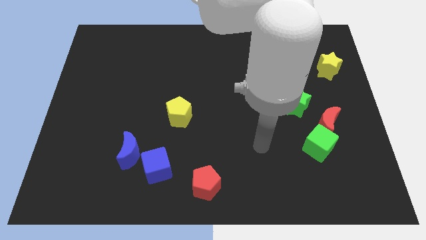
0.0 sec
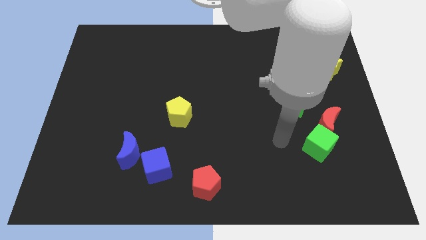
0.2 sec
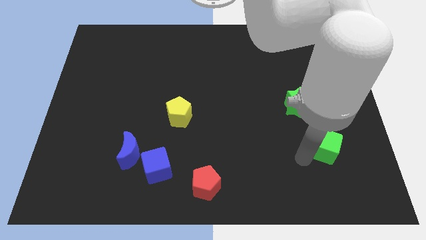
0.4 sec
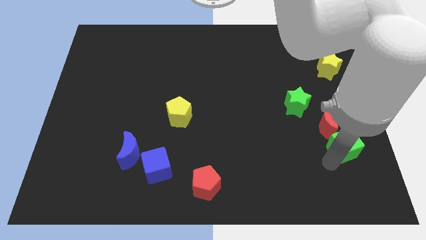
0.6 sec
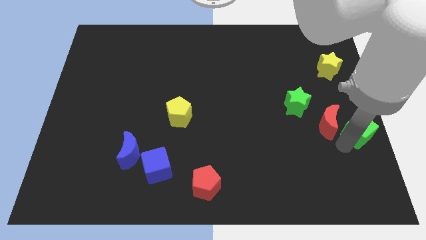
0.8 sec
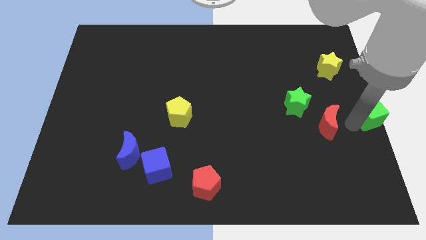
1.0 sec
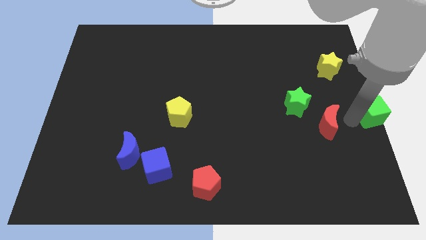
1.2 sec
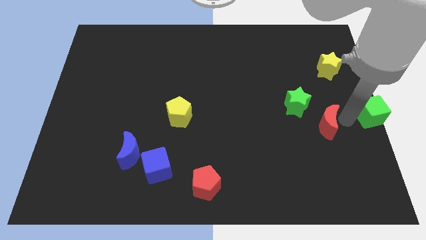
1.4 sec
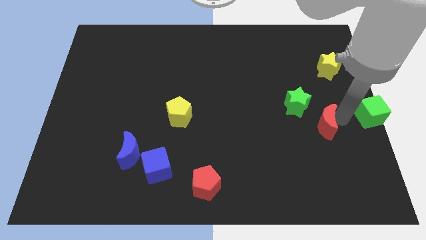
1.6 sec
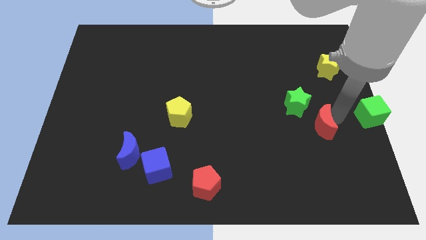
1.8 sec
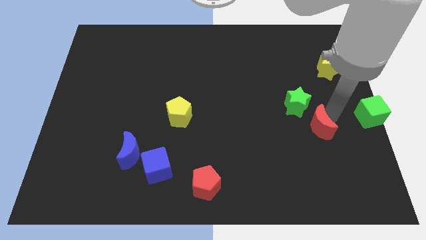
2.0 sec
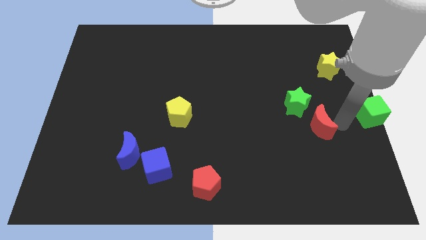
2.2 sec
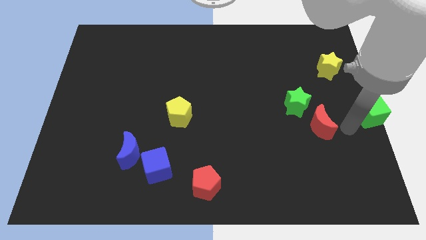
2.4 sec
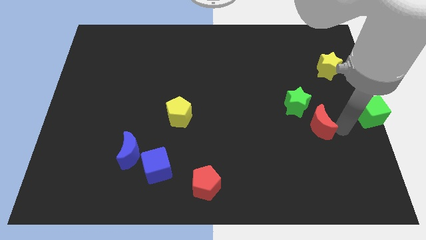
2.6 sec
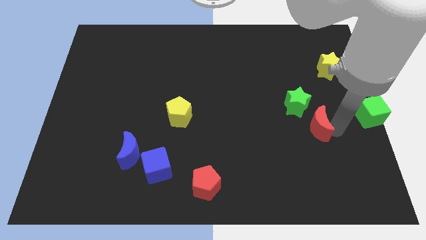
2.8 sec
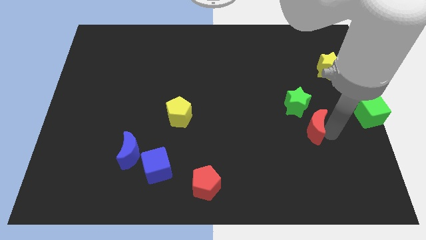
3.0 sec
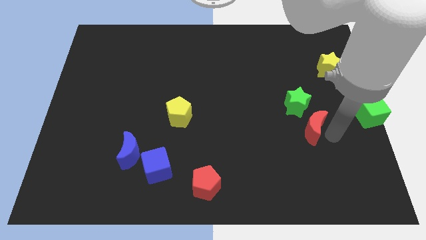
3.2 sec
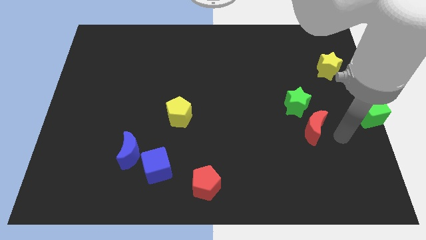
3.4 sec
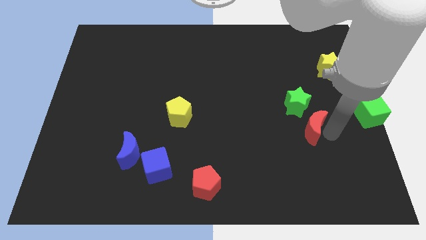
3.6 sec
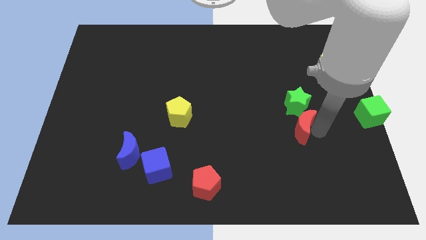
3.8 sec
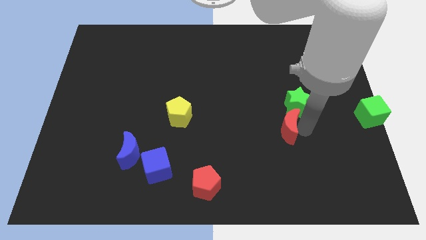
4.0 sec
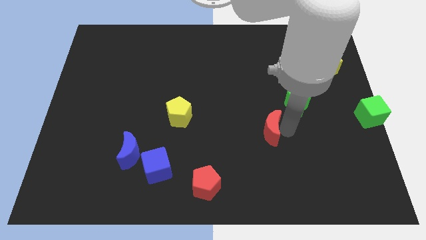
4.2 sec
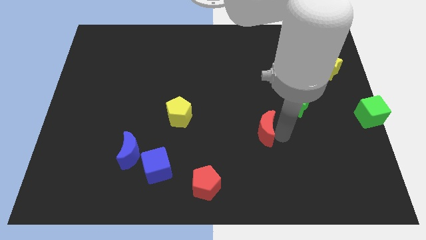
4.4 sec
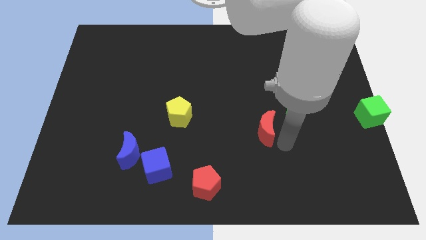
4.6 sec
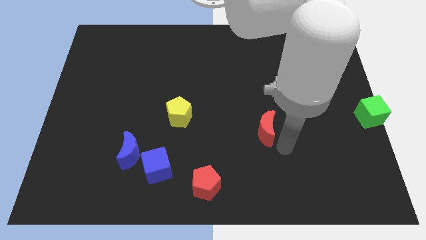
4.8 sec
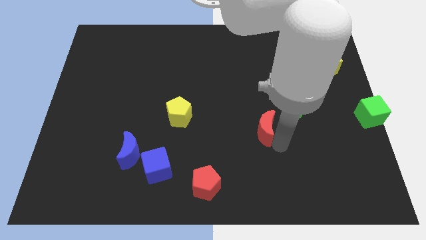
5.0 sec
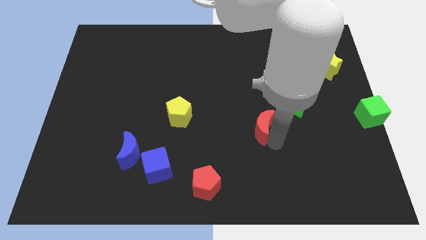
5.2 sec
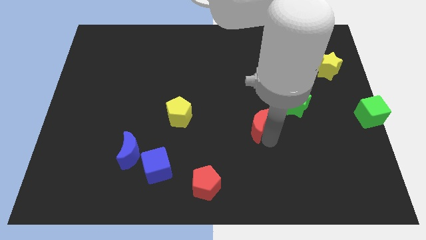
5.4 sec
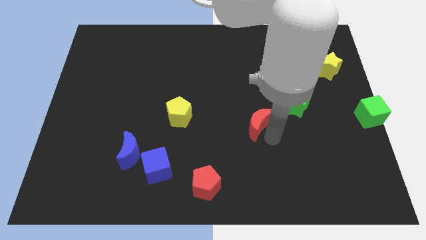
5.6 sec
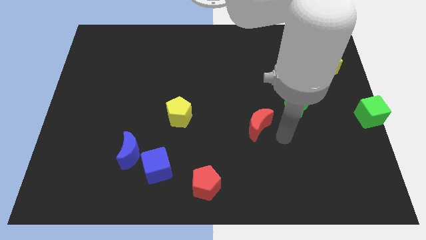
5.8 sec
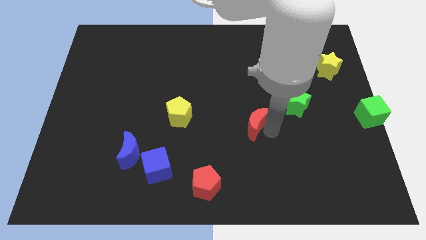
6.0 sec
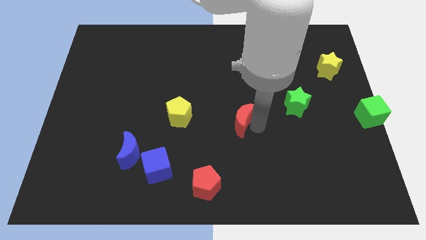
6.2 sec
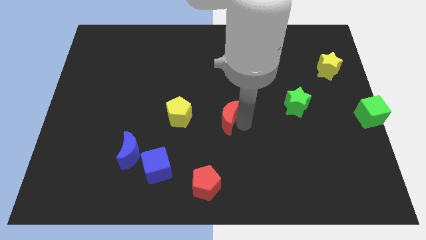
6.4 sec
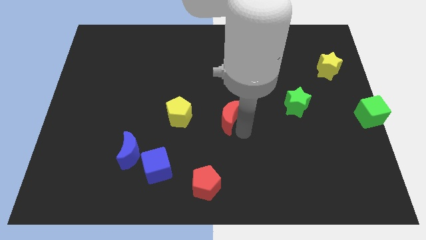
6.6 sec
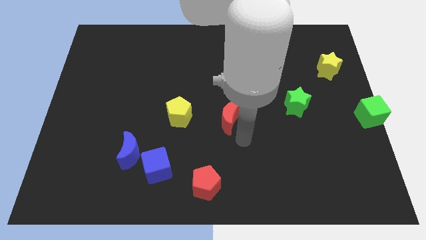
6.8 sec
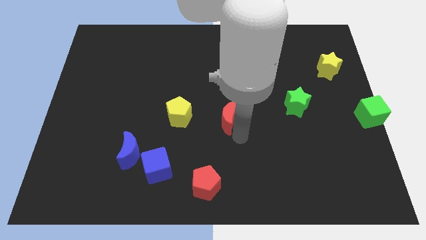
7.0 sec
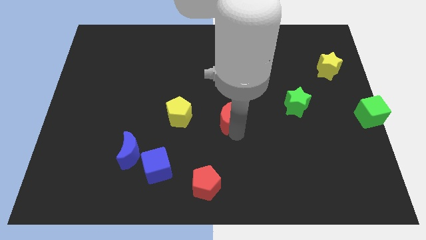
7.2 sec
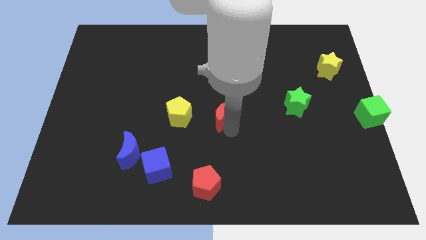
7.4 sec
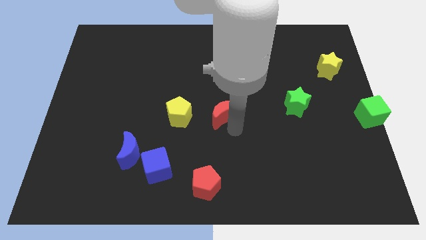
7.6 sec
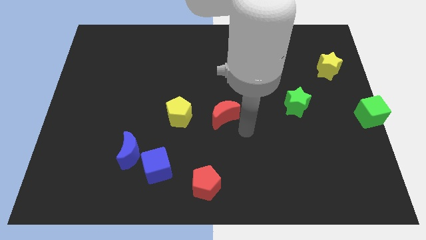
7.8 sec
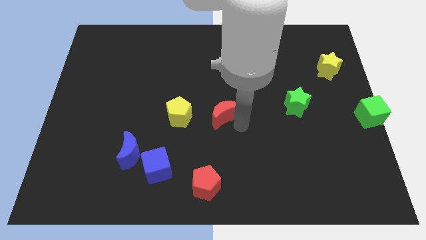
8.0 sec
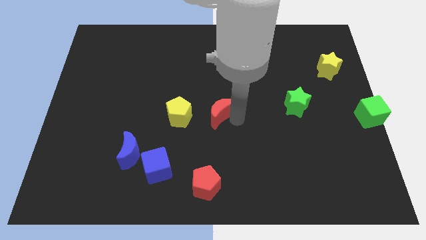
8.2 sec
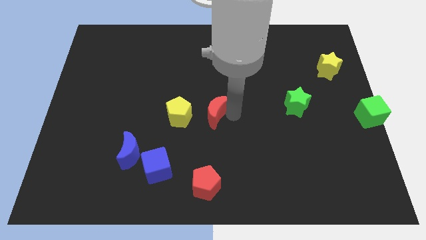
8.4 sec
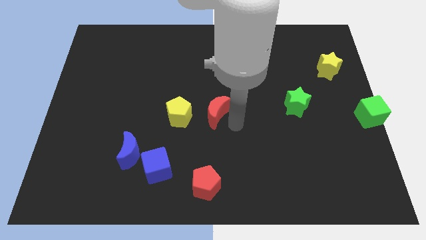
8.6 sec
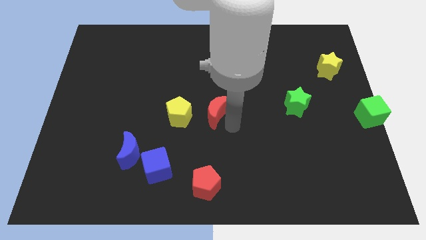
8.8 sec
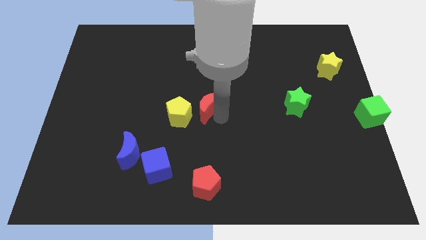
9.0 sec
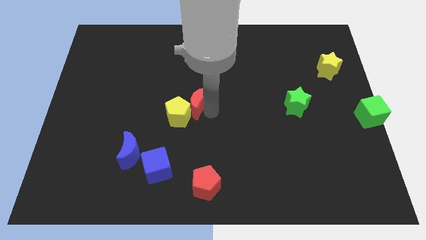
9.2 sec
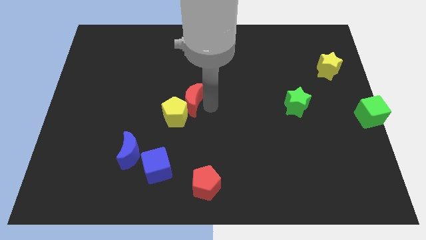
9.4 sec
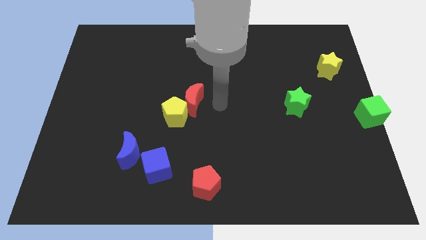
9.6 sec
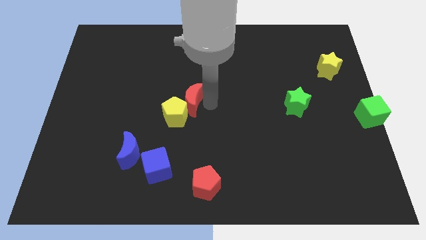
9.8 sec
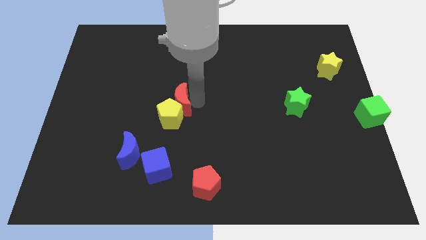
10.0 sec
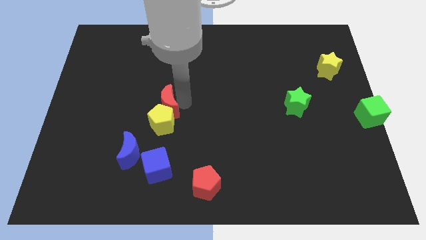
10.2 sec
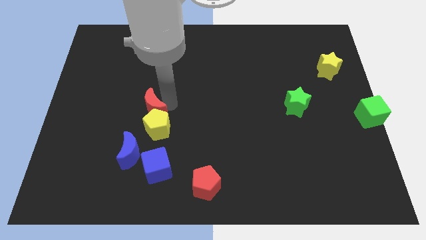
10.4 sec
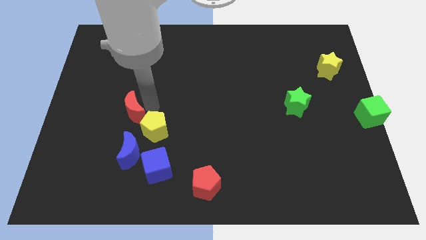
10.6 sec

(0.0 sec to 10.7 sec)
put the red moon left of the yellow pentagon

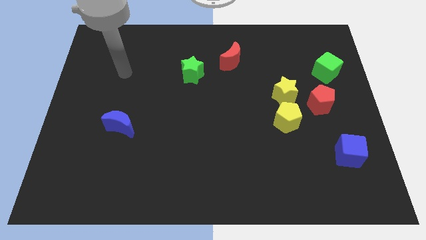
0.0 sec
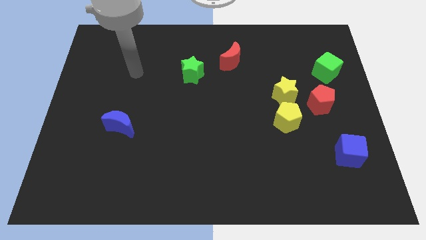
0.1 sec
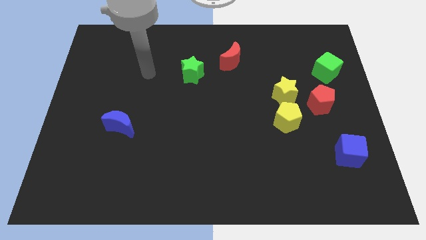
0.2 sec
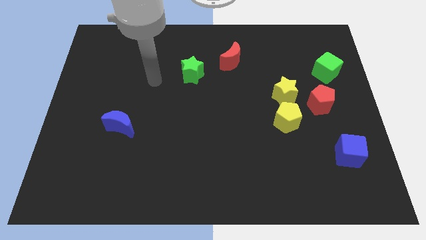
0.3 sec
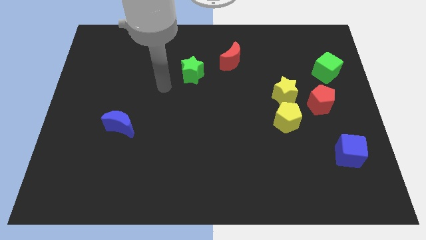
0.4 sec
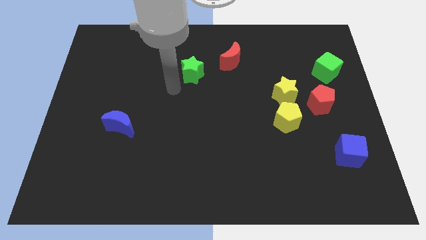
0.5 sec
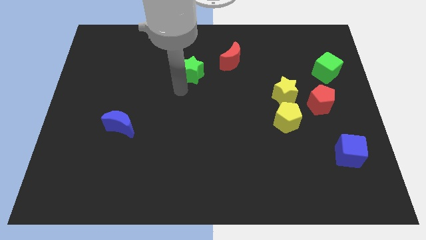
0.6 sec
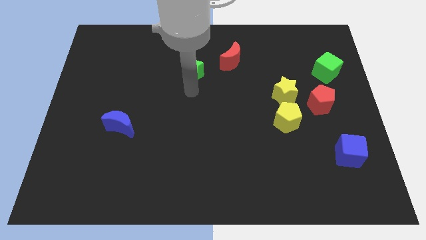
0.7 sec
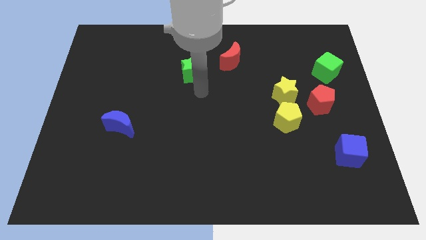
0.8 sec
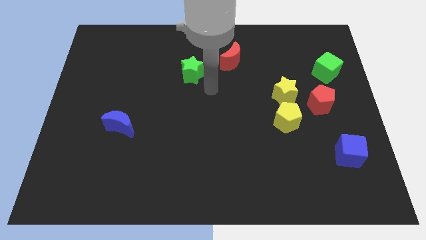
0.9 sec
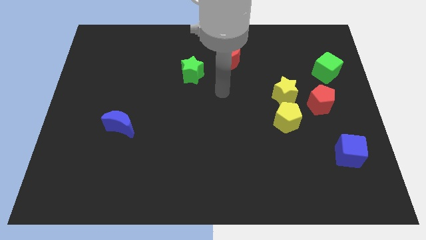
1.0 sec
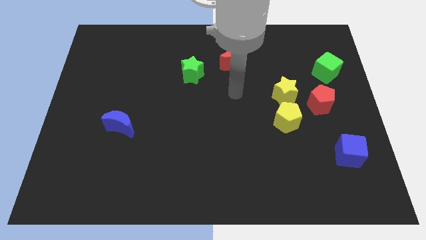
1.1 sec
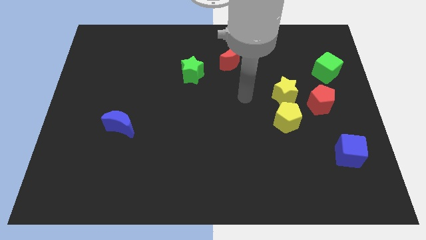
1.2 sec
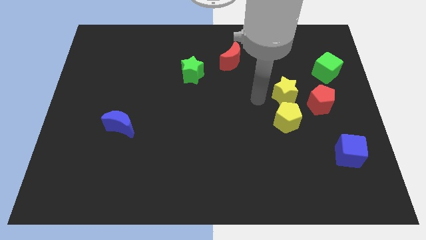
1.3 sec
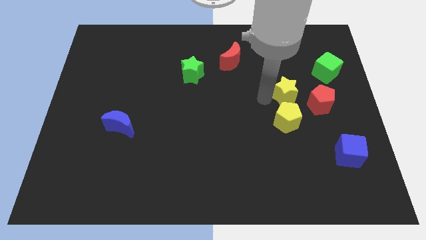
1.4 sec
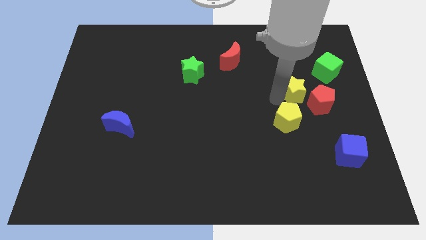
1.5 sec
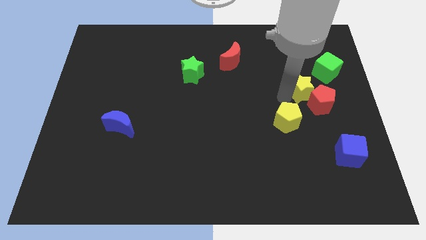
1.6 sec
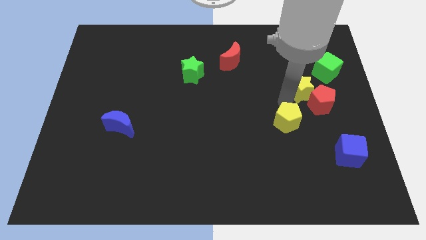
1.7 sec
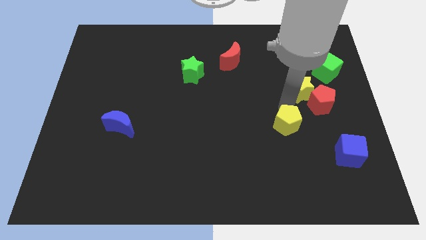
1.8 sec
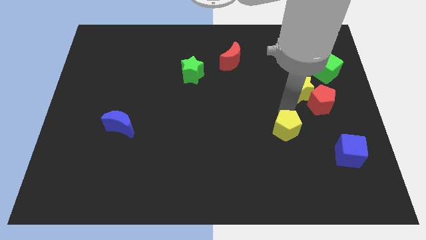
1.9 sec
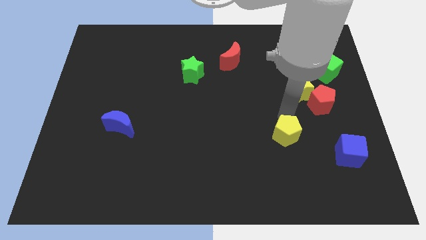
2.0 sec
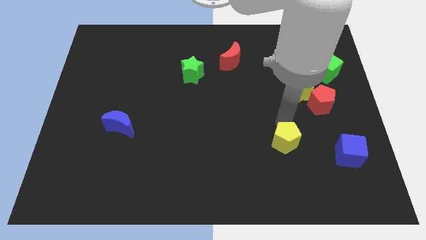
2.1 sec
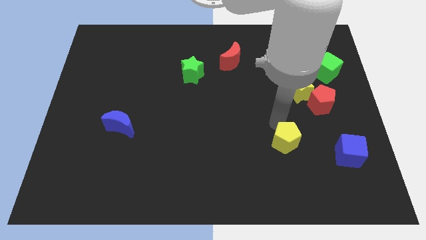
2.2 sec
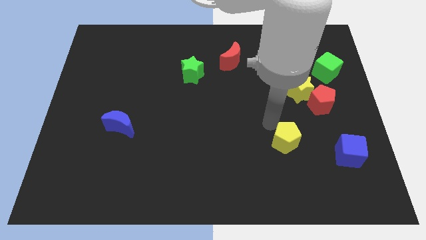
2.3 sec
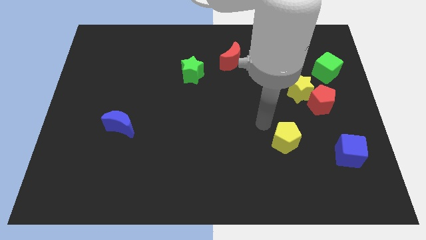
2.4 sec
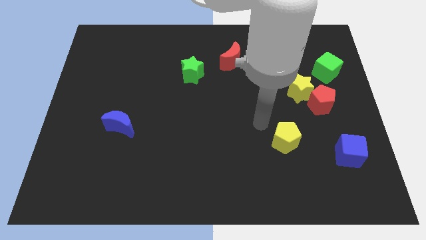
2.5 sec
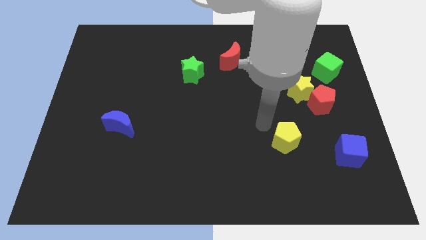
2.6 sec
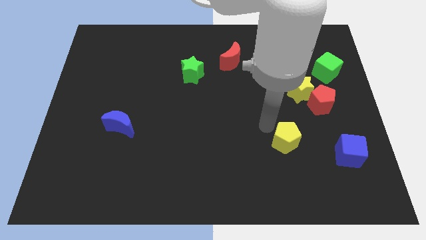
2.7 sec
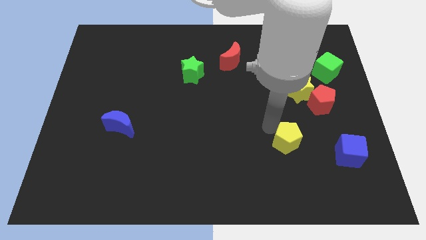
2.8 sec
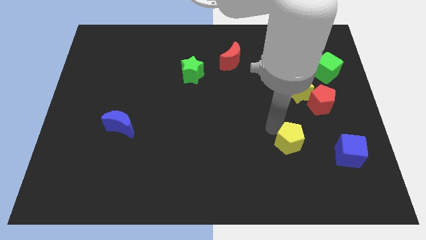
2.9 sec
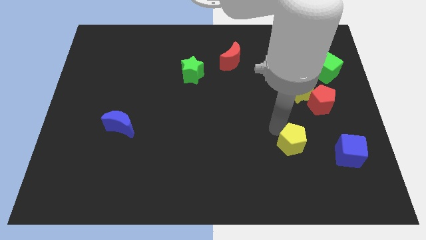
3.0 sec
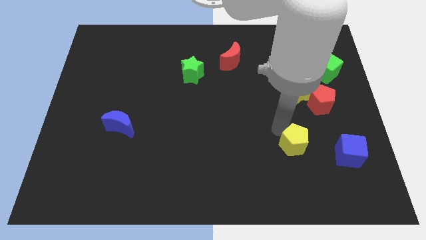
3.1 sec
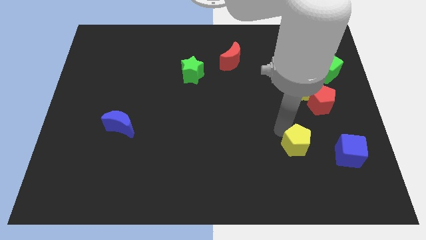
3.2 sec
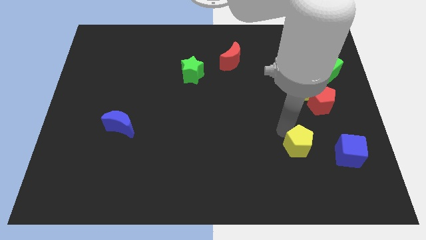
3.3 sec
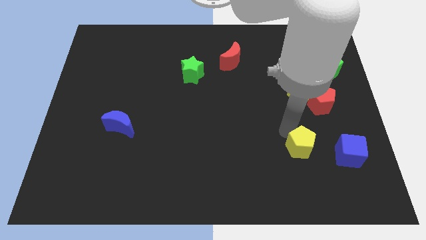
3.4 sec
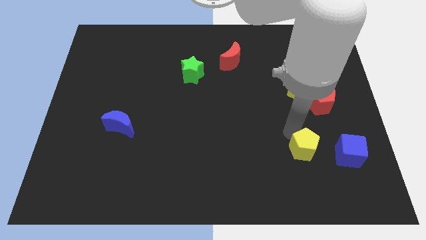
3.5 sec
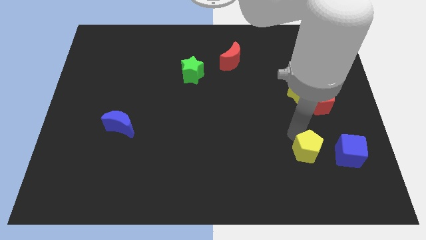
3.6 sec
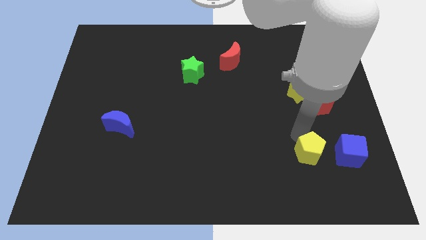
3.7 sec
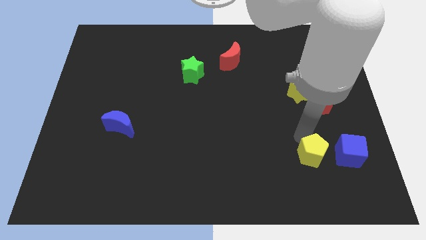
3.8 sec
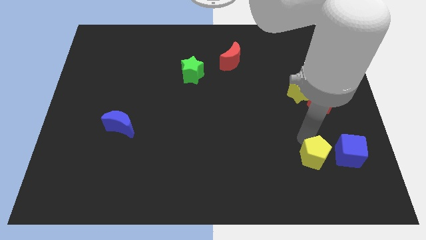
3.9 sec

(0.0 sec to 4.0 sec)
push the yellow pentagon to the bottom left side of the blue cube
